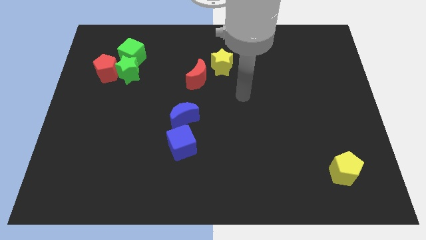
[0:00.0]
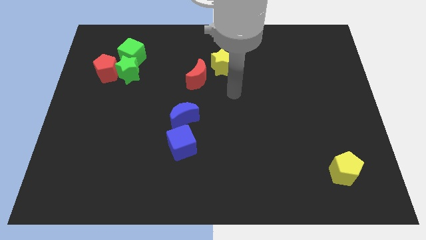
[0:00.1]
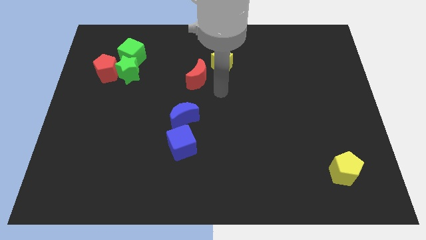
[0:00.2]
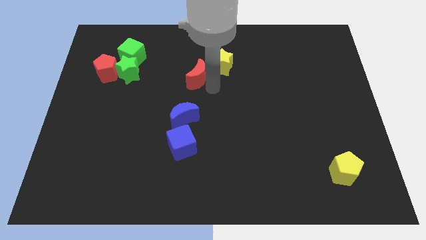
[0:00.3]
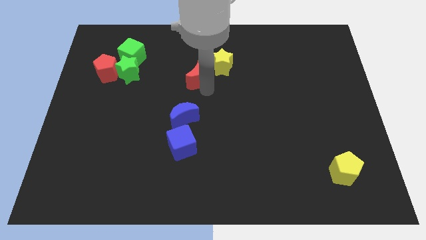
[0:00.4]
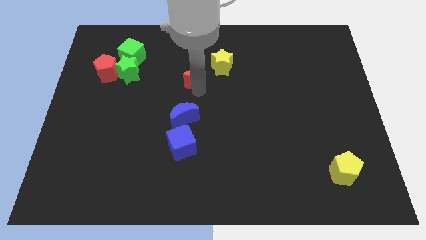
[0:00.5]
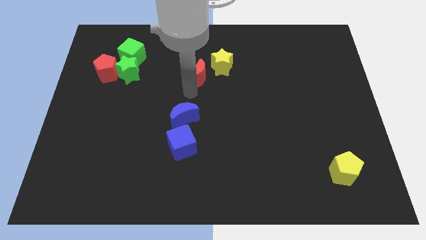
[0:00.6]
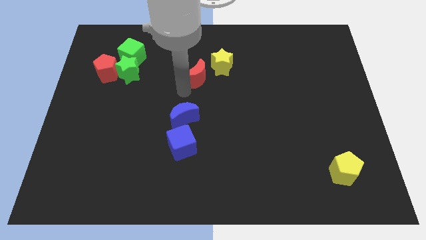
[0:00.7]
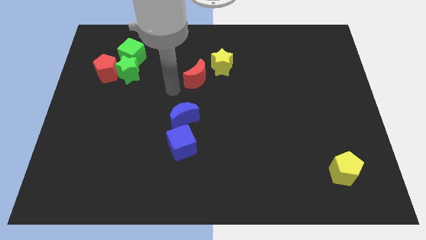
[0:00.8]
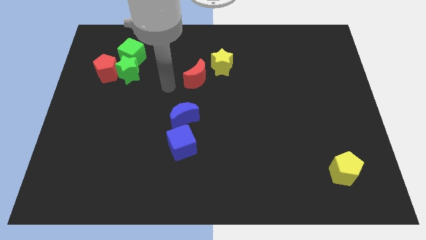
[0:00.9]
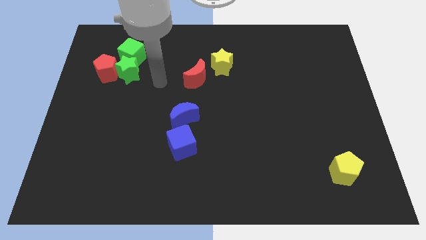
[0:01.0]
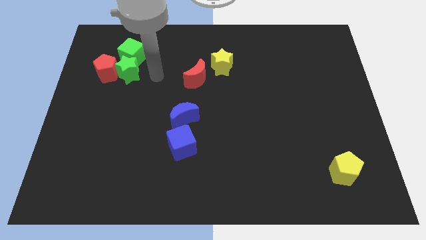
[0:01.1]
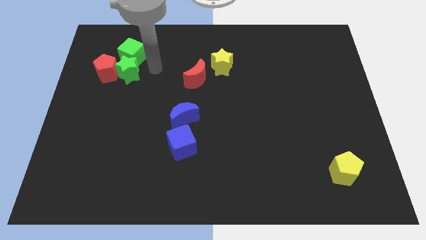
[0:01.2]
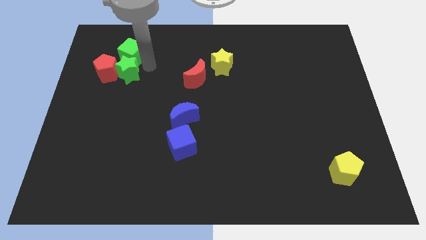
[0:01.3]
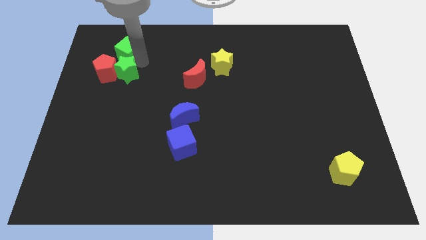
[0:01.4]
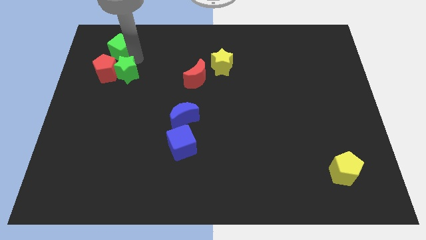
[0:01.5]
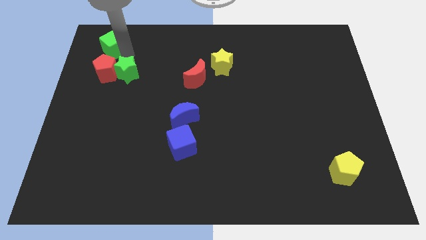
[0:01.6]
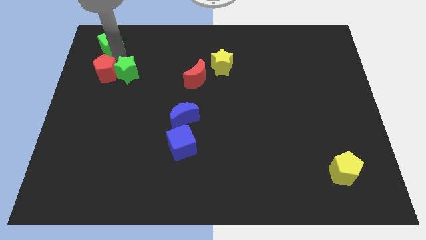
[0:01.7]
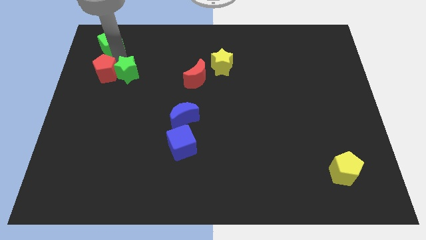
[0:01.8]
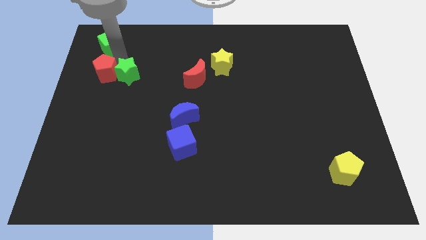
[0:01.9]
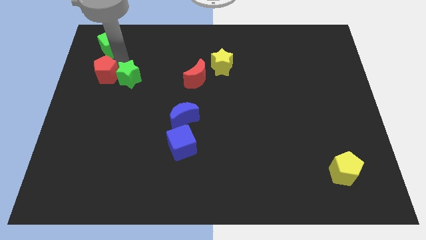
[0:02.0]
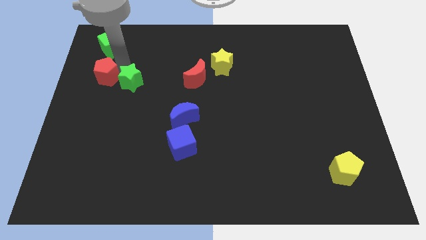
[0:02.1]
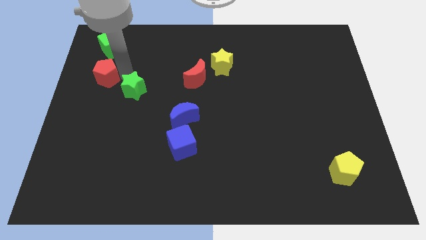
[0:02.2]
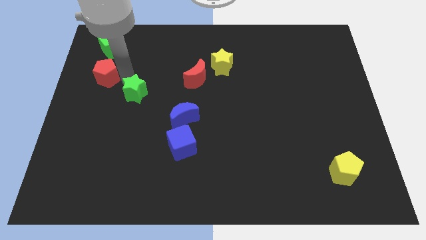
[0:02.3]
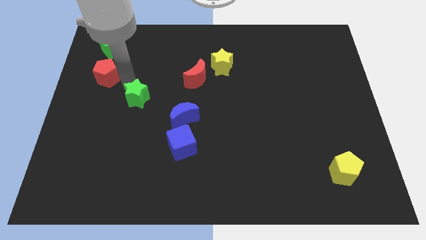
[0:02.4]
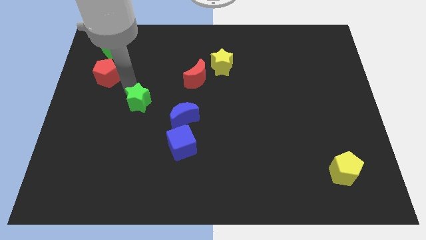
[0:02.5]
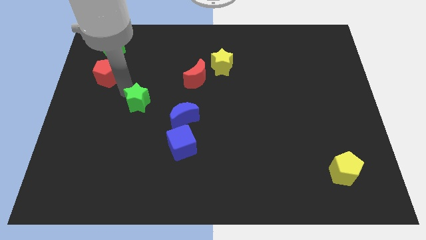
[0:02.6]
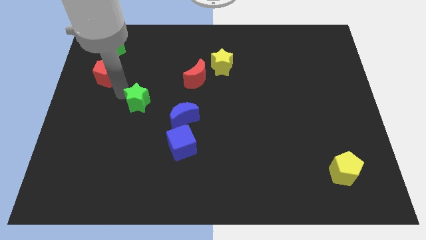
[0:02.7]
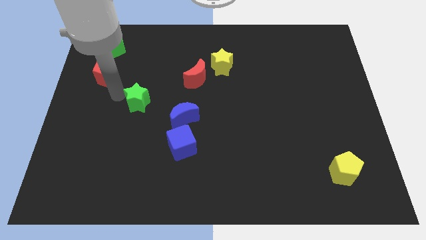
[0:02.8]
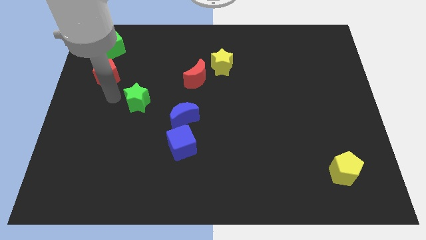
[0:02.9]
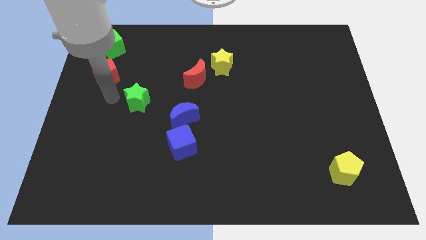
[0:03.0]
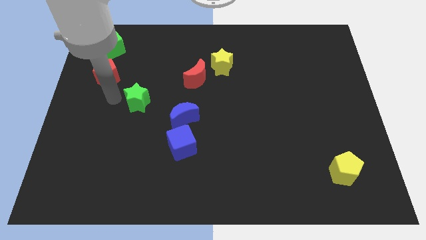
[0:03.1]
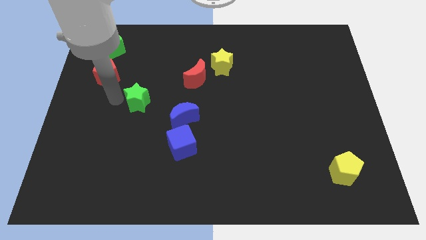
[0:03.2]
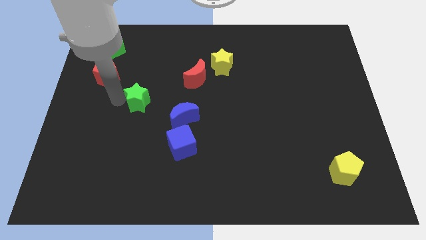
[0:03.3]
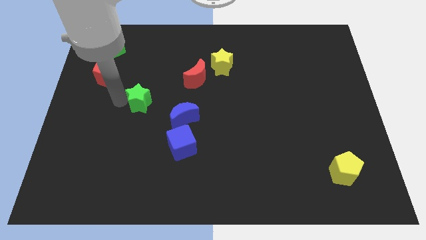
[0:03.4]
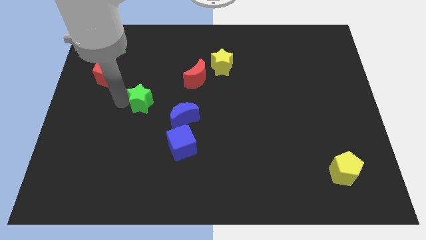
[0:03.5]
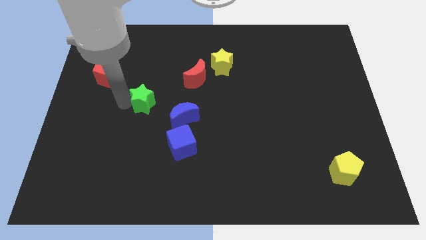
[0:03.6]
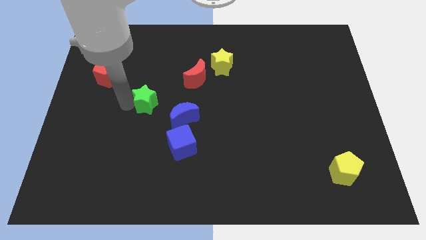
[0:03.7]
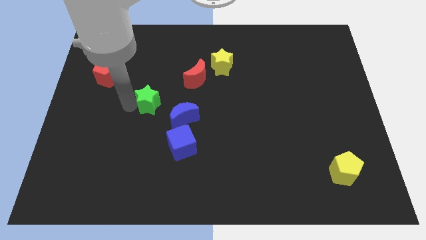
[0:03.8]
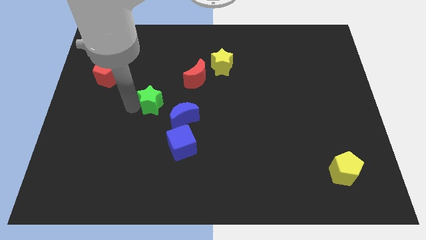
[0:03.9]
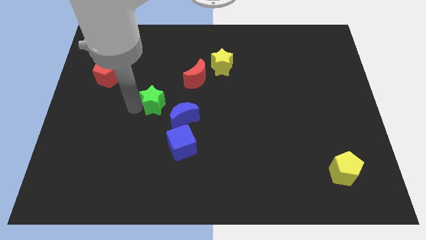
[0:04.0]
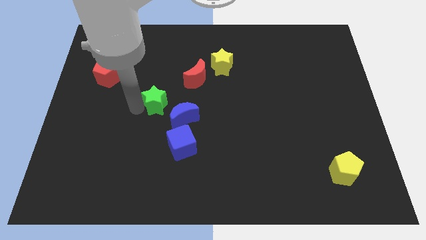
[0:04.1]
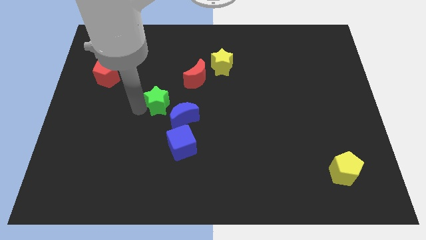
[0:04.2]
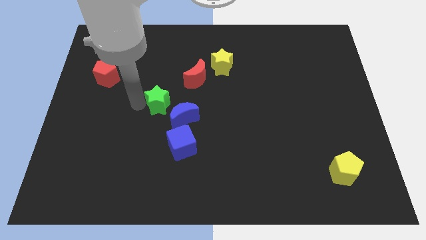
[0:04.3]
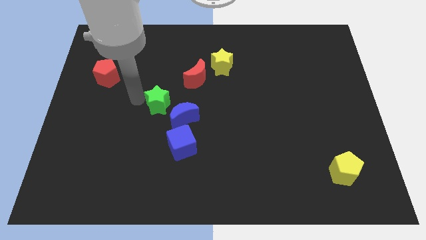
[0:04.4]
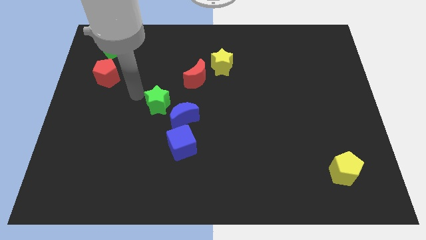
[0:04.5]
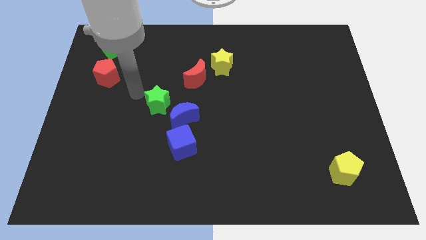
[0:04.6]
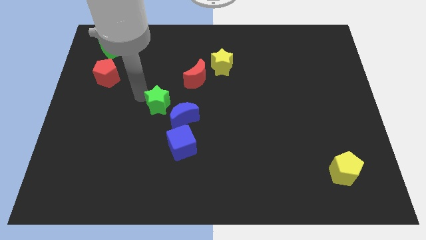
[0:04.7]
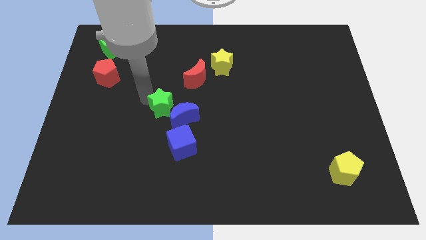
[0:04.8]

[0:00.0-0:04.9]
move the green star towards the blue moon

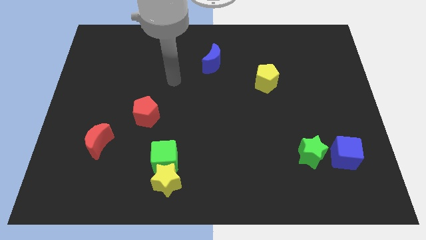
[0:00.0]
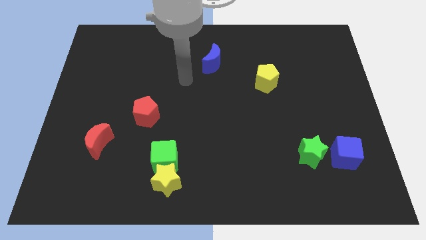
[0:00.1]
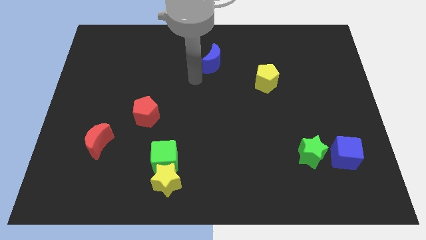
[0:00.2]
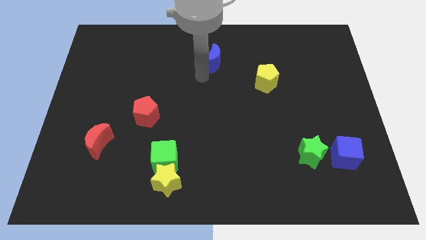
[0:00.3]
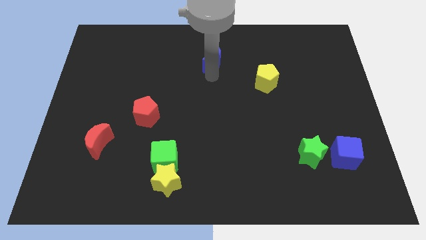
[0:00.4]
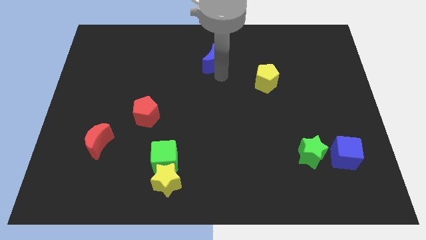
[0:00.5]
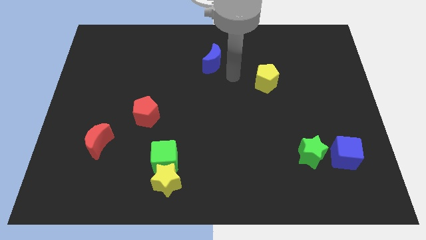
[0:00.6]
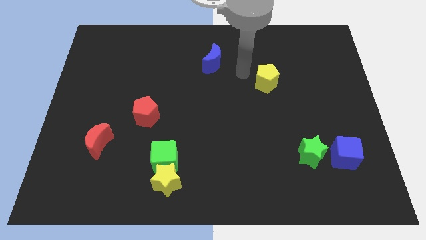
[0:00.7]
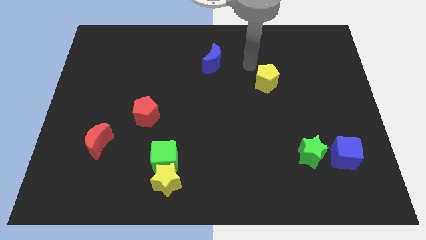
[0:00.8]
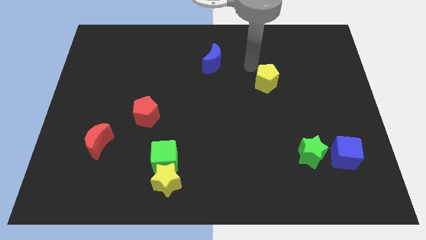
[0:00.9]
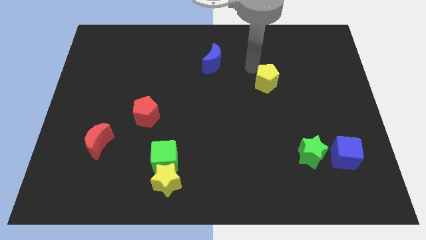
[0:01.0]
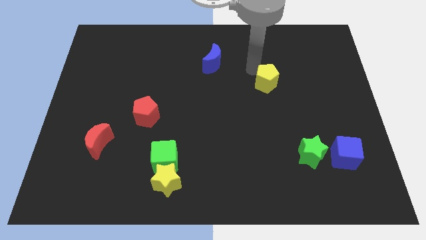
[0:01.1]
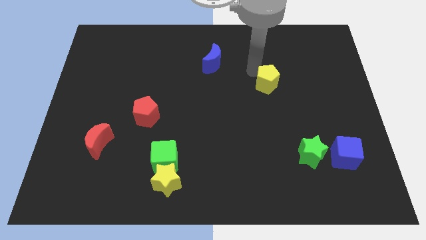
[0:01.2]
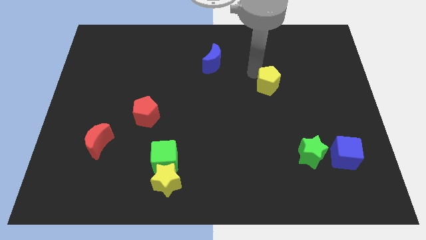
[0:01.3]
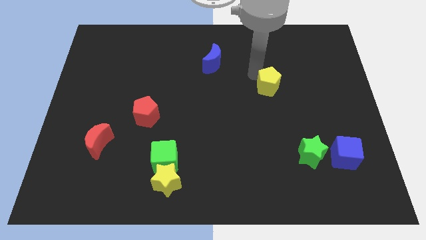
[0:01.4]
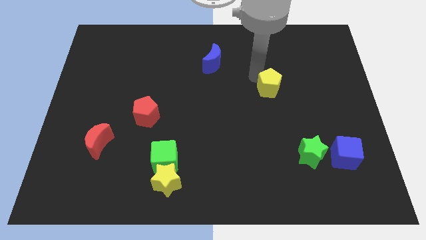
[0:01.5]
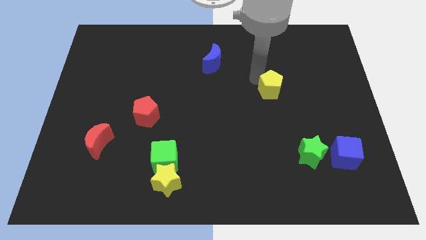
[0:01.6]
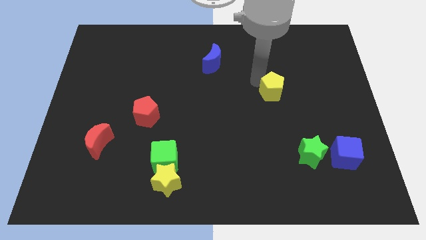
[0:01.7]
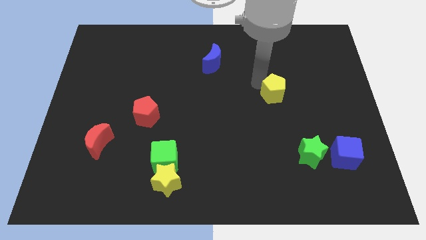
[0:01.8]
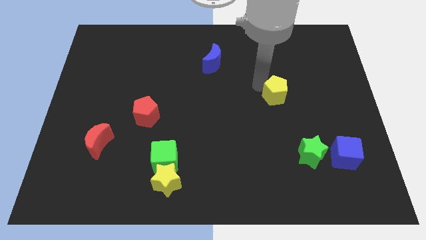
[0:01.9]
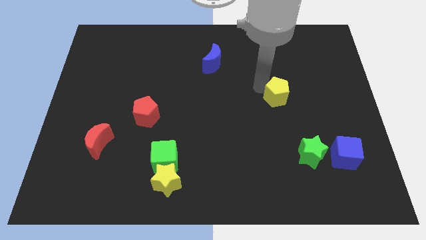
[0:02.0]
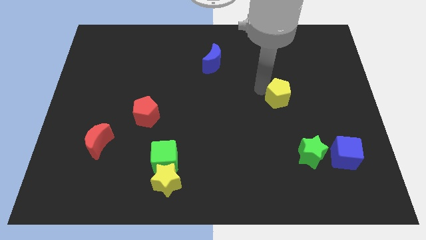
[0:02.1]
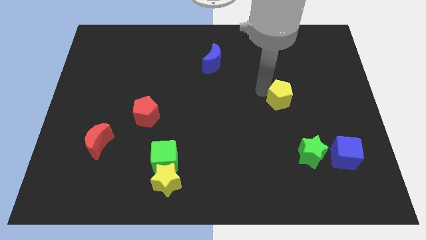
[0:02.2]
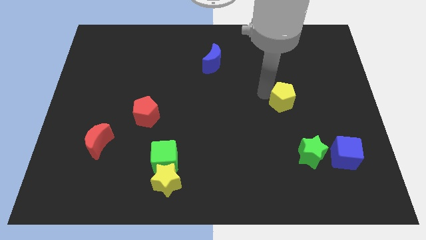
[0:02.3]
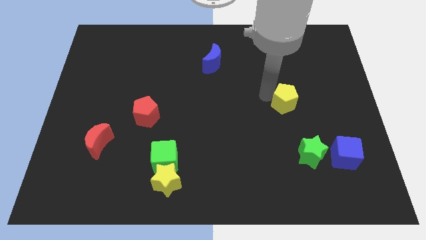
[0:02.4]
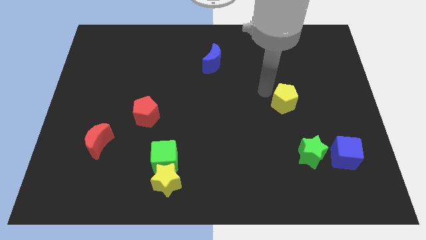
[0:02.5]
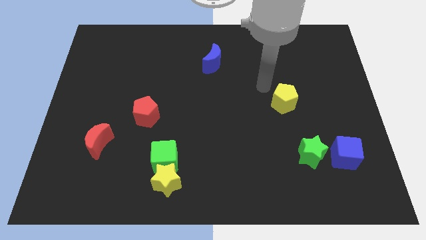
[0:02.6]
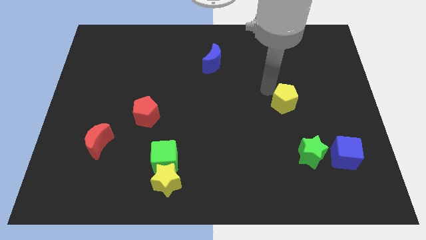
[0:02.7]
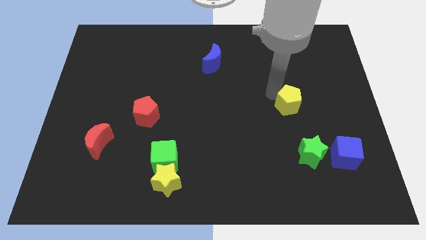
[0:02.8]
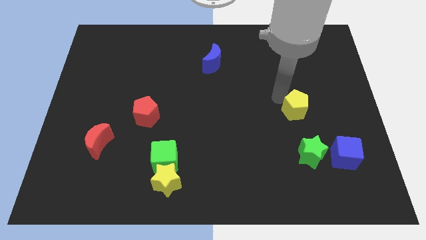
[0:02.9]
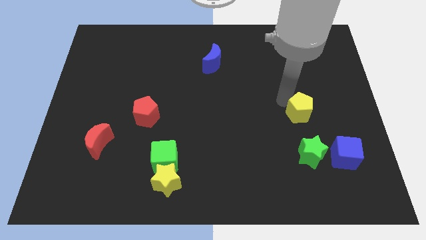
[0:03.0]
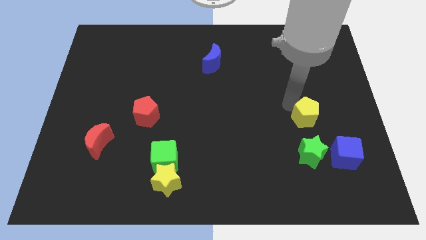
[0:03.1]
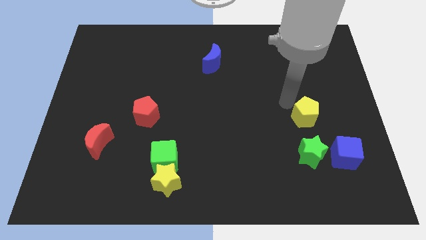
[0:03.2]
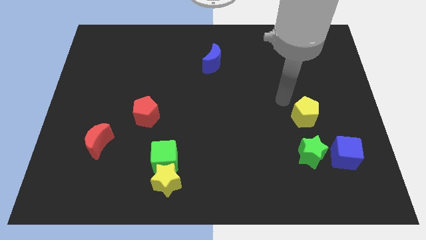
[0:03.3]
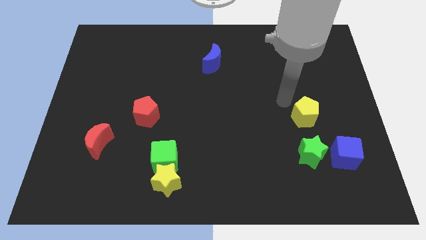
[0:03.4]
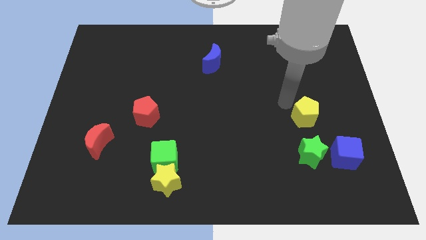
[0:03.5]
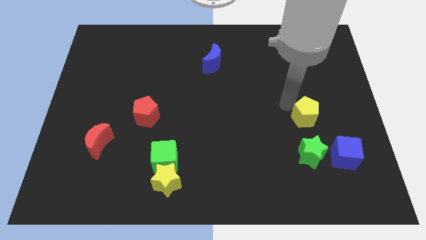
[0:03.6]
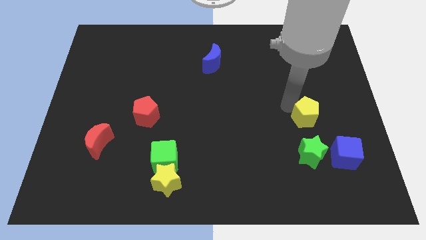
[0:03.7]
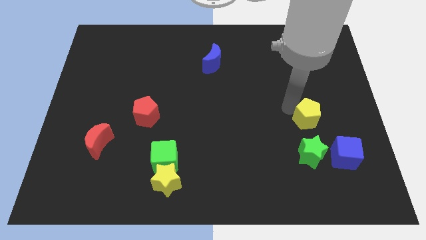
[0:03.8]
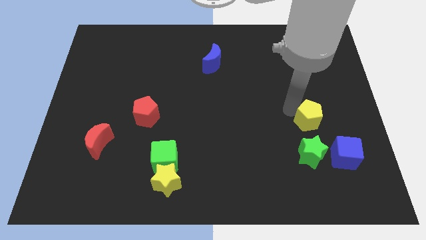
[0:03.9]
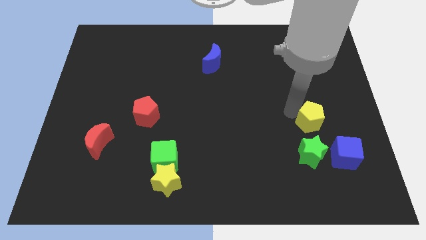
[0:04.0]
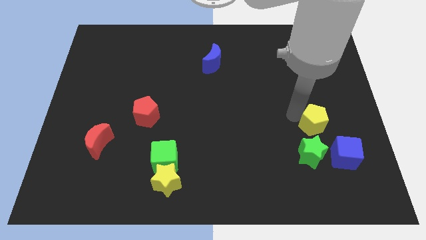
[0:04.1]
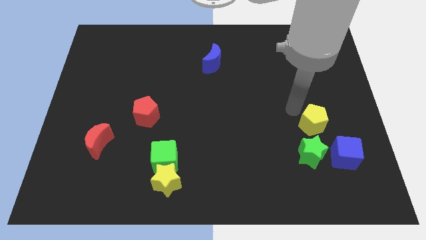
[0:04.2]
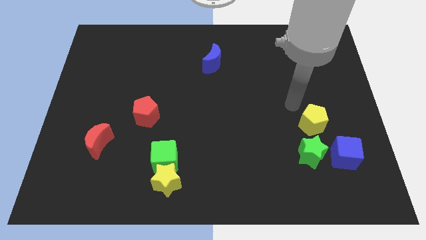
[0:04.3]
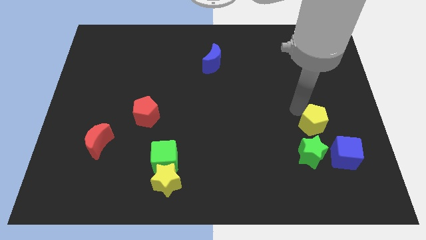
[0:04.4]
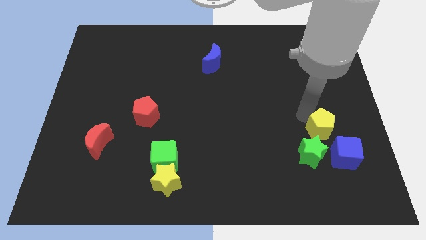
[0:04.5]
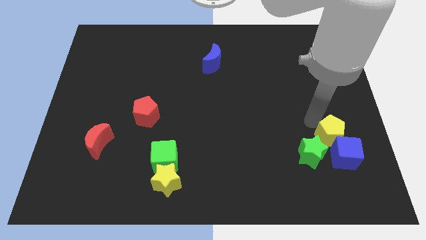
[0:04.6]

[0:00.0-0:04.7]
slide the yellow pentagon to the blue cube
